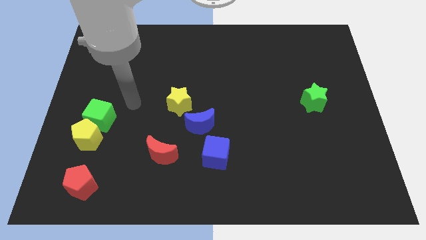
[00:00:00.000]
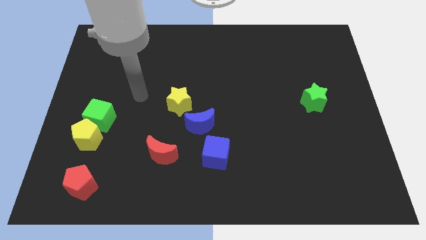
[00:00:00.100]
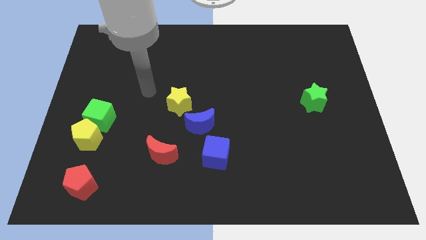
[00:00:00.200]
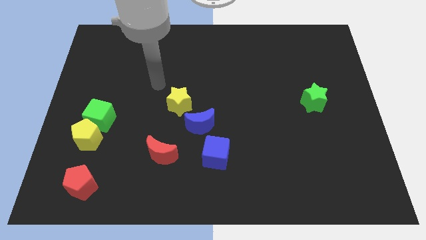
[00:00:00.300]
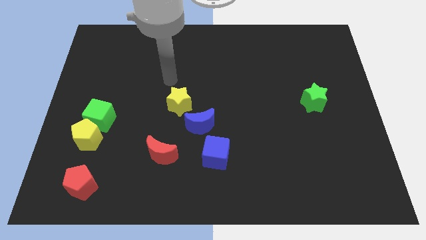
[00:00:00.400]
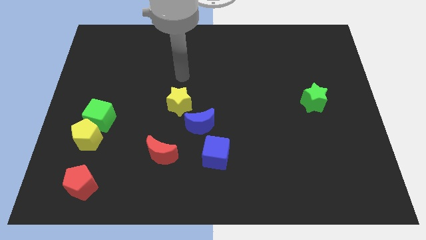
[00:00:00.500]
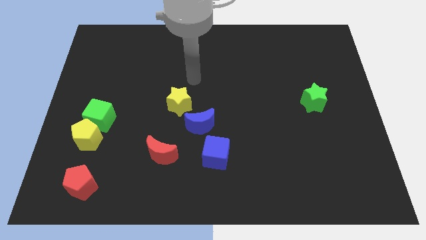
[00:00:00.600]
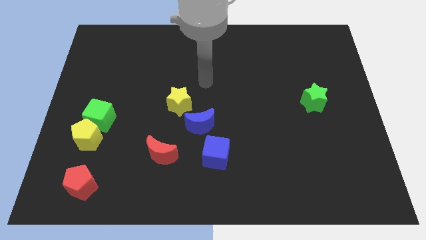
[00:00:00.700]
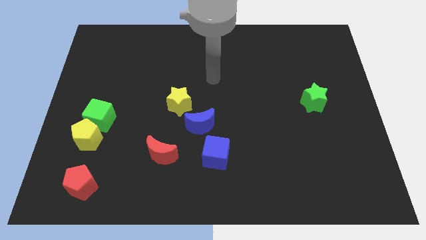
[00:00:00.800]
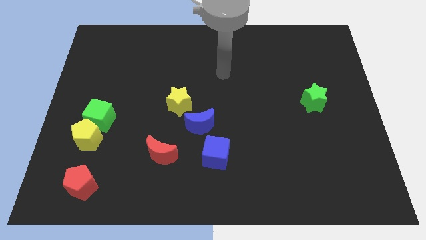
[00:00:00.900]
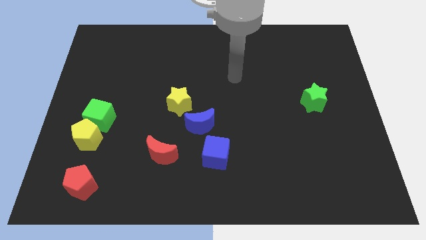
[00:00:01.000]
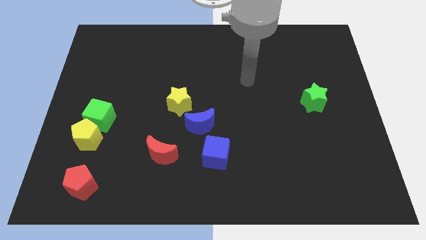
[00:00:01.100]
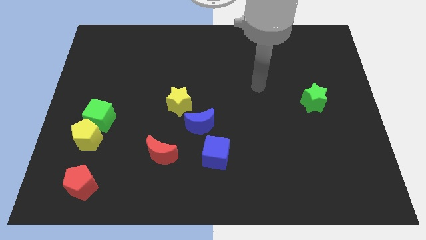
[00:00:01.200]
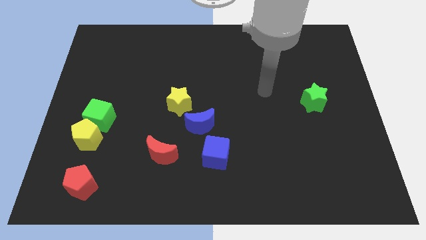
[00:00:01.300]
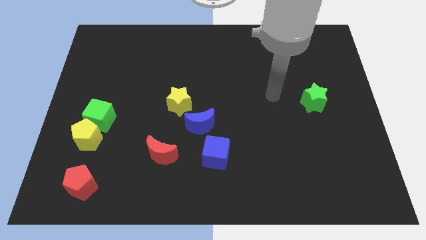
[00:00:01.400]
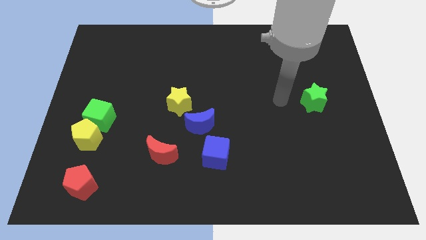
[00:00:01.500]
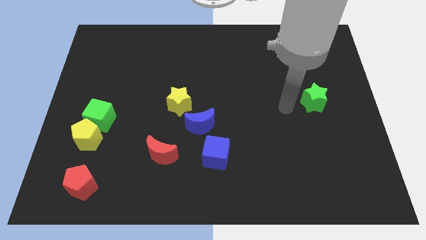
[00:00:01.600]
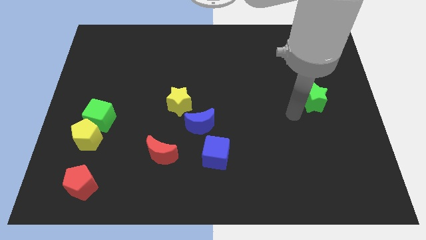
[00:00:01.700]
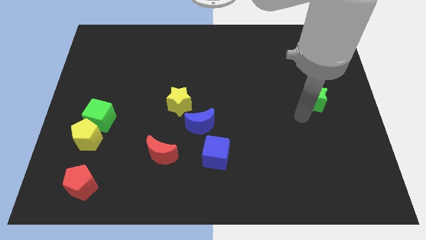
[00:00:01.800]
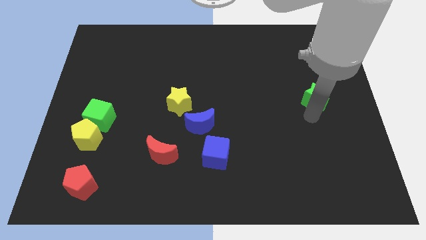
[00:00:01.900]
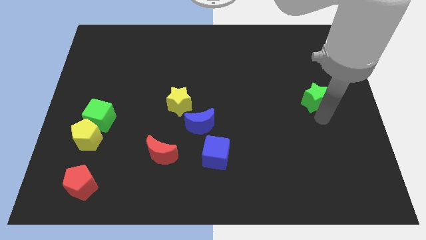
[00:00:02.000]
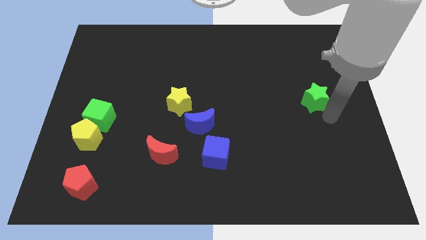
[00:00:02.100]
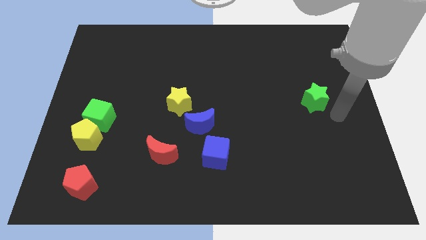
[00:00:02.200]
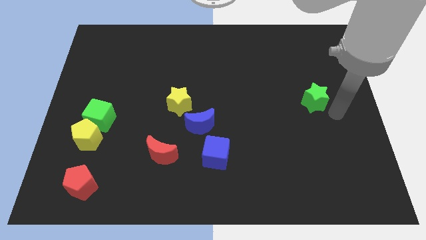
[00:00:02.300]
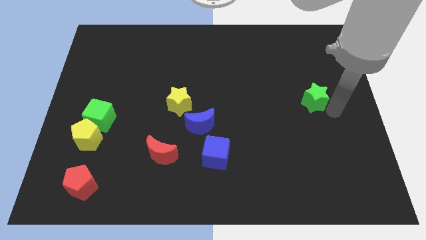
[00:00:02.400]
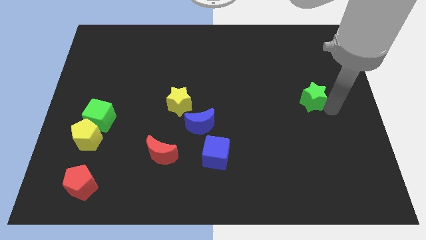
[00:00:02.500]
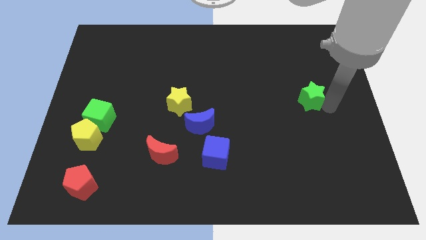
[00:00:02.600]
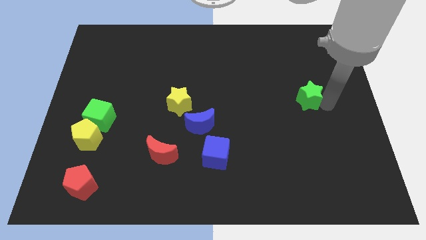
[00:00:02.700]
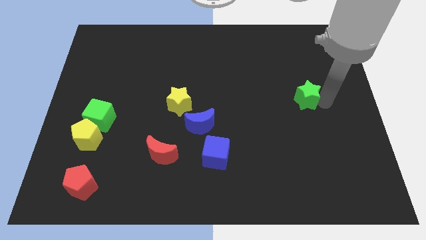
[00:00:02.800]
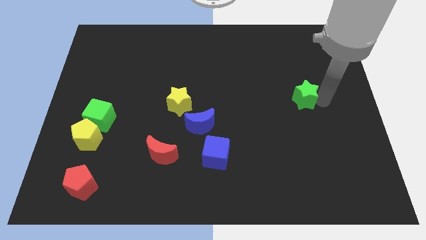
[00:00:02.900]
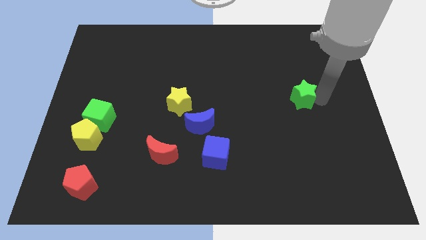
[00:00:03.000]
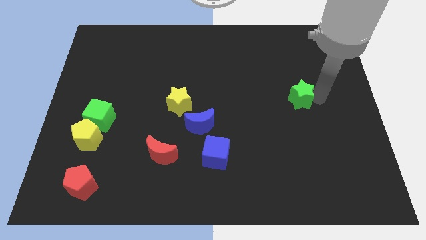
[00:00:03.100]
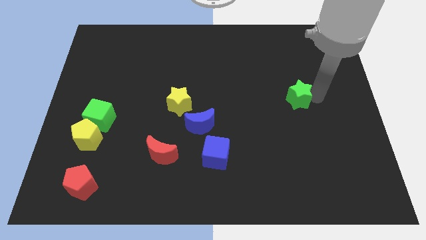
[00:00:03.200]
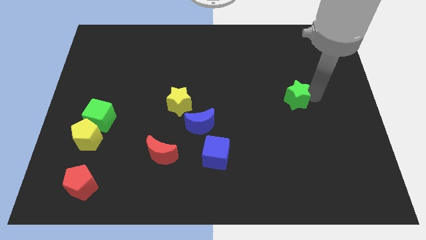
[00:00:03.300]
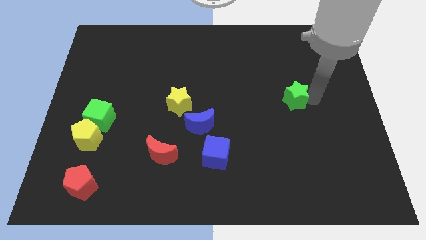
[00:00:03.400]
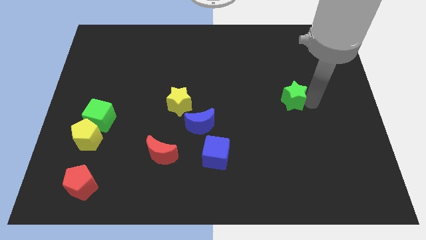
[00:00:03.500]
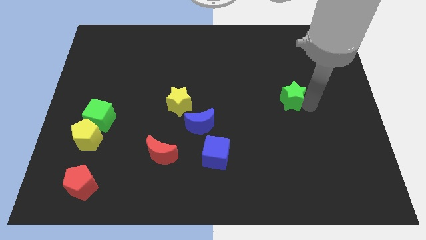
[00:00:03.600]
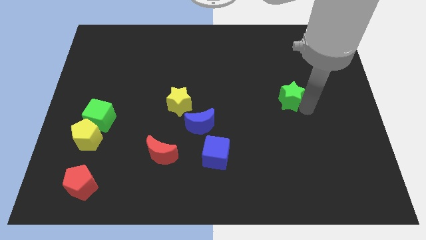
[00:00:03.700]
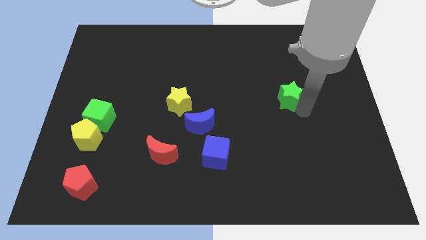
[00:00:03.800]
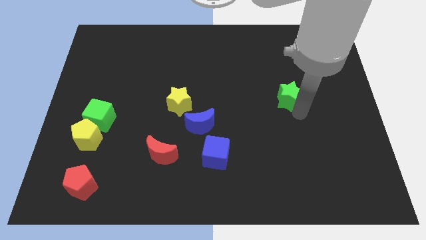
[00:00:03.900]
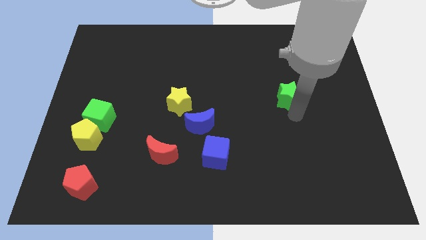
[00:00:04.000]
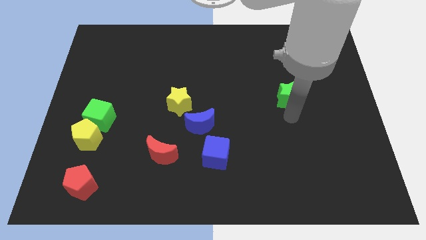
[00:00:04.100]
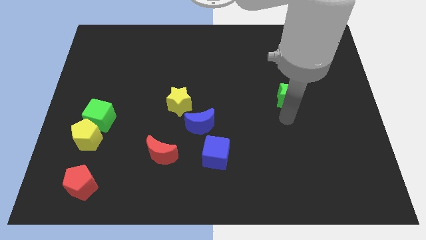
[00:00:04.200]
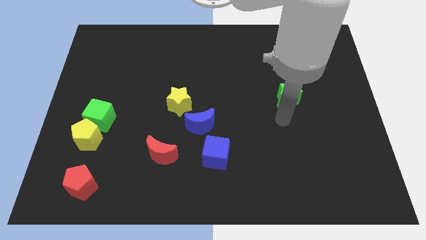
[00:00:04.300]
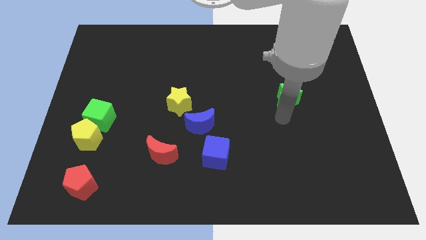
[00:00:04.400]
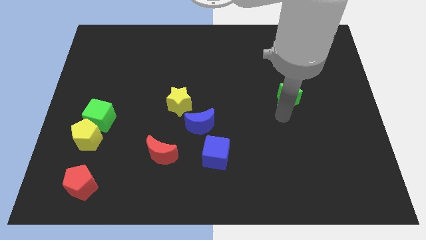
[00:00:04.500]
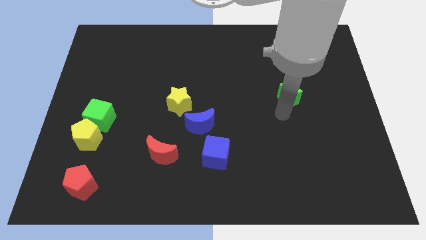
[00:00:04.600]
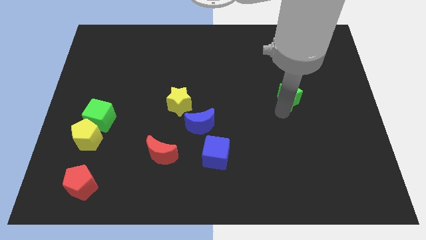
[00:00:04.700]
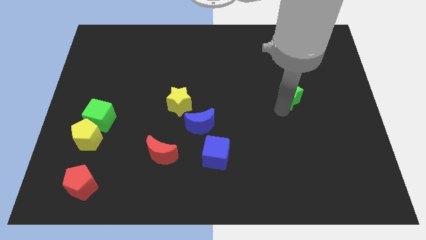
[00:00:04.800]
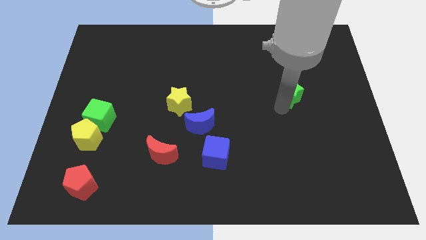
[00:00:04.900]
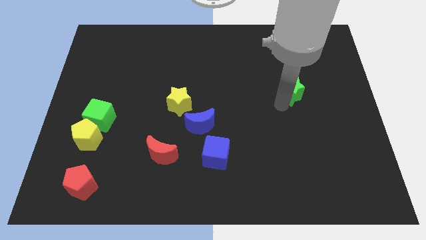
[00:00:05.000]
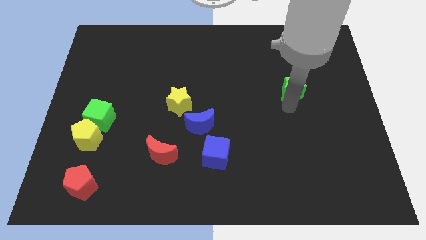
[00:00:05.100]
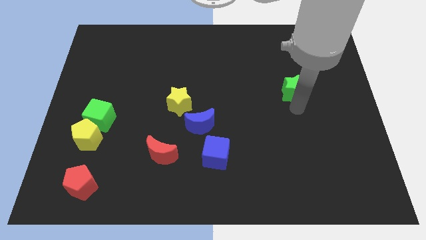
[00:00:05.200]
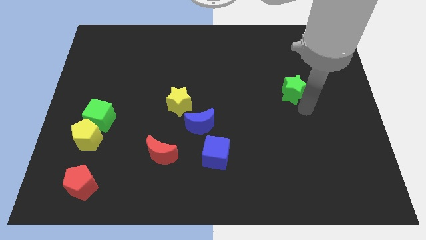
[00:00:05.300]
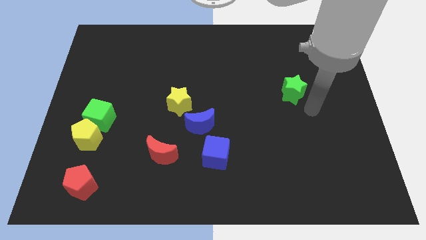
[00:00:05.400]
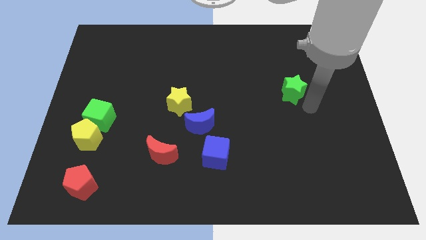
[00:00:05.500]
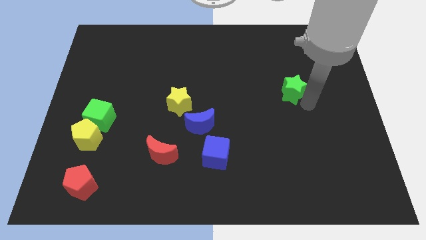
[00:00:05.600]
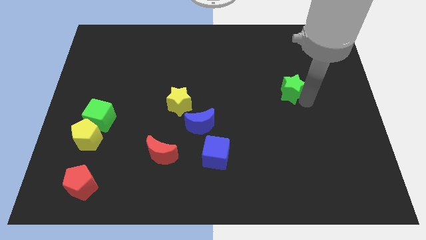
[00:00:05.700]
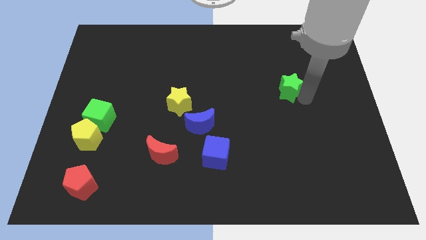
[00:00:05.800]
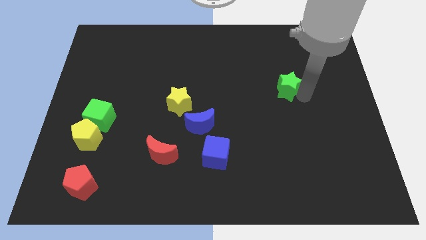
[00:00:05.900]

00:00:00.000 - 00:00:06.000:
slightly push the green star up and then to the left

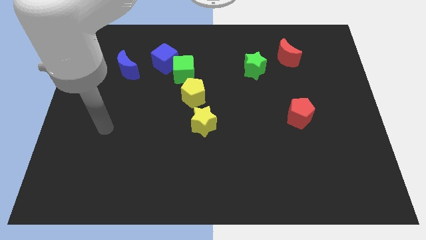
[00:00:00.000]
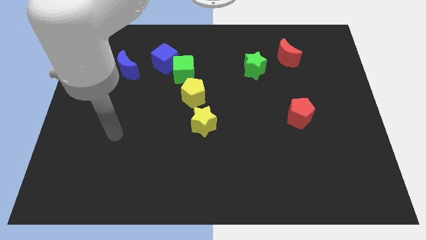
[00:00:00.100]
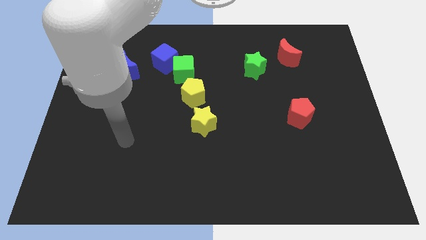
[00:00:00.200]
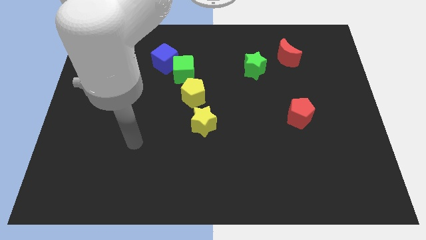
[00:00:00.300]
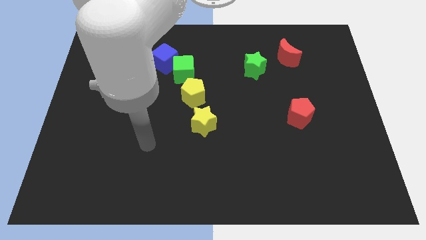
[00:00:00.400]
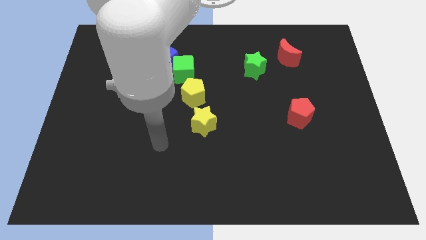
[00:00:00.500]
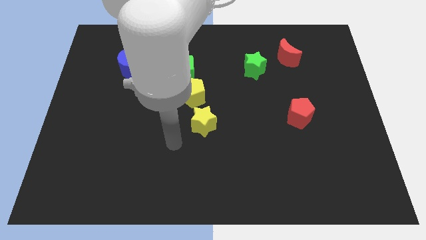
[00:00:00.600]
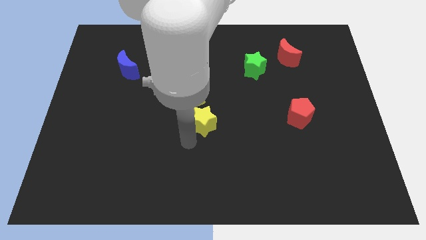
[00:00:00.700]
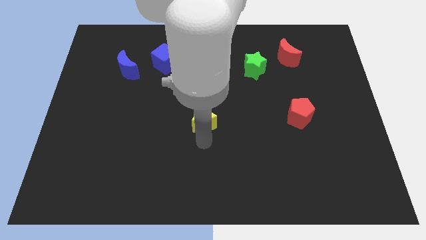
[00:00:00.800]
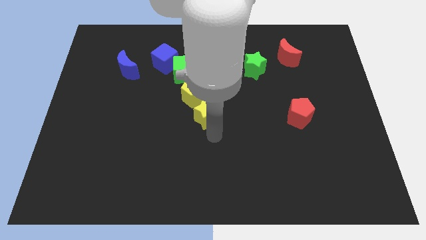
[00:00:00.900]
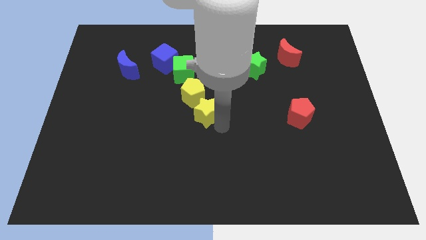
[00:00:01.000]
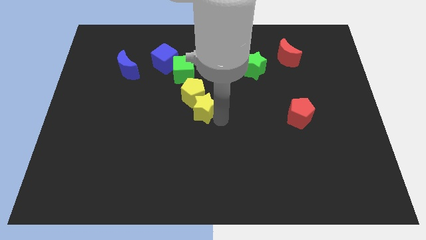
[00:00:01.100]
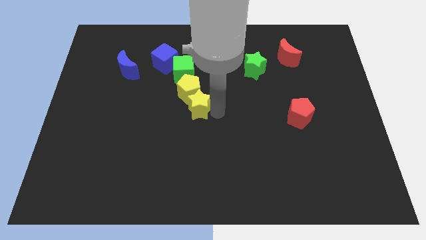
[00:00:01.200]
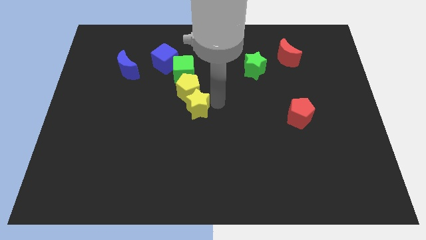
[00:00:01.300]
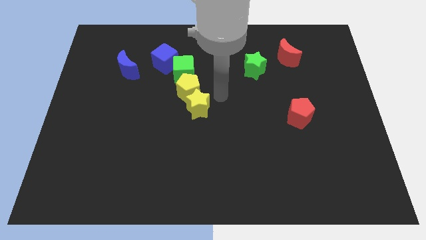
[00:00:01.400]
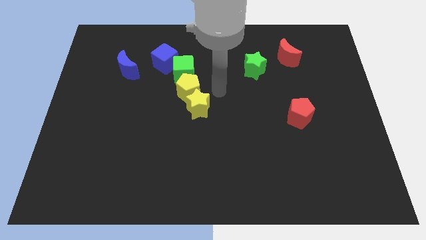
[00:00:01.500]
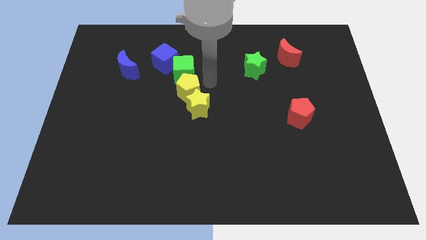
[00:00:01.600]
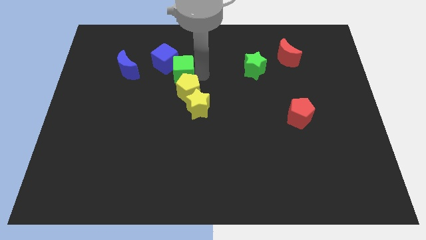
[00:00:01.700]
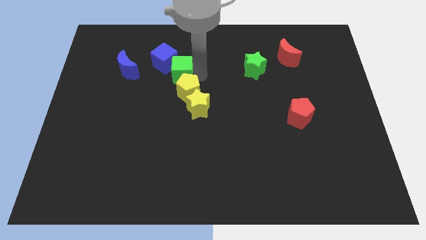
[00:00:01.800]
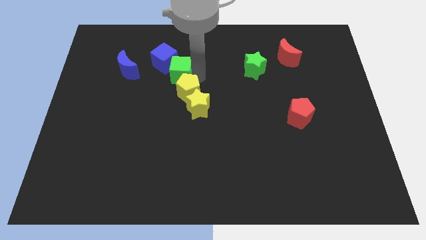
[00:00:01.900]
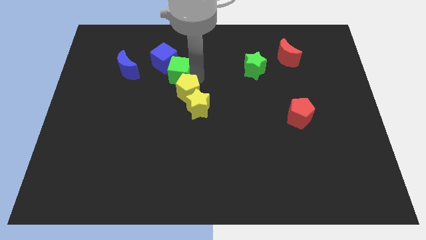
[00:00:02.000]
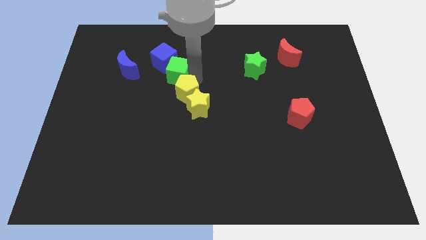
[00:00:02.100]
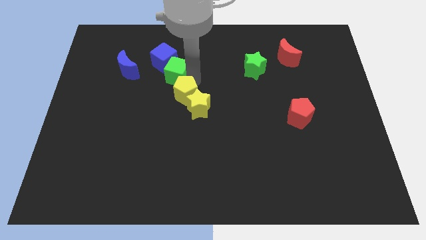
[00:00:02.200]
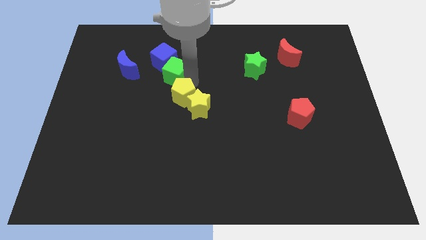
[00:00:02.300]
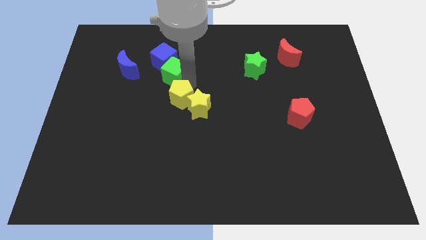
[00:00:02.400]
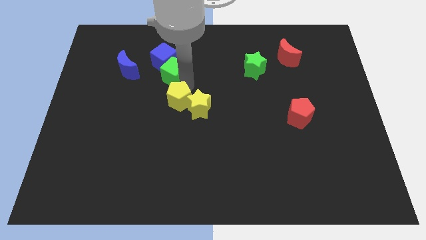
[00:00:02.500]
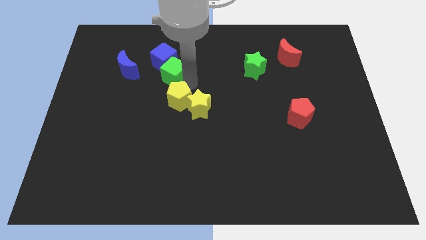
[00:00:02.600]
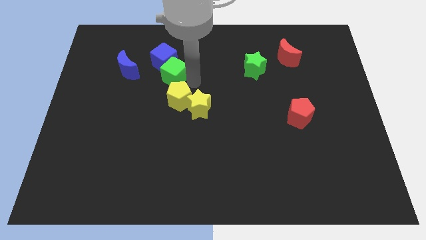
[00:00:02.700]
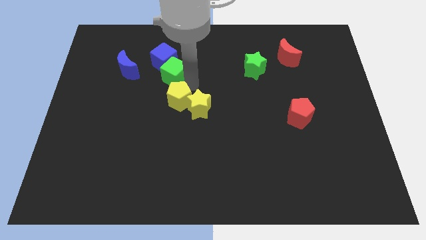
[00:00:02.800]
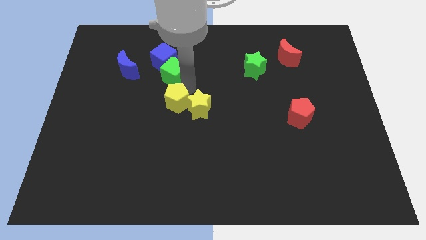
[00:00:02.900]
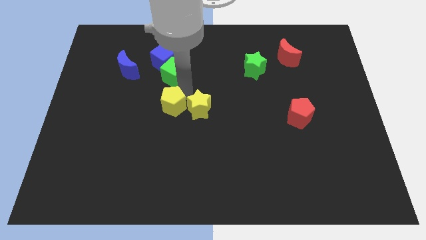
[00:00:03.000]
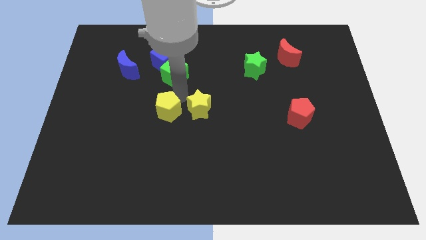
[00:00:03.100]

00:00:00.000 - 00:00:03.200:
push the yellow pentagon down and left a little
